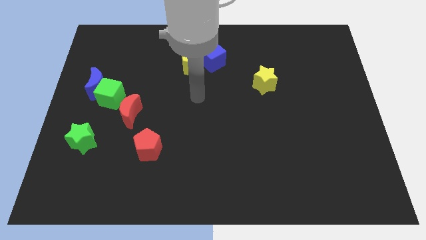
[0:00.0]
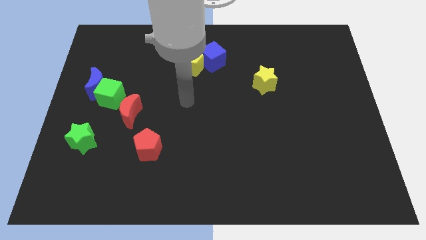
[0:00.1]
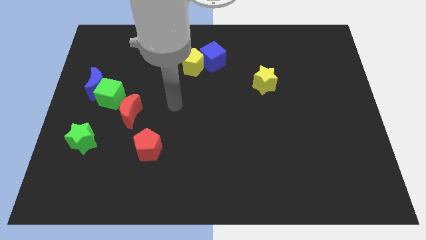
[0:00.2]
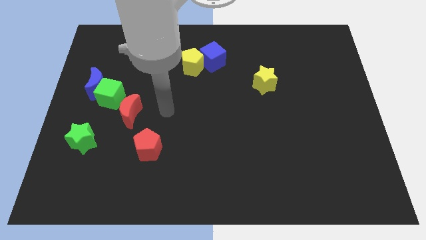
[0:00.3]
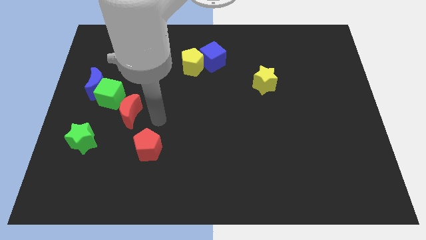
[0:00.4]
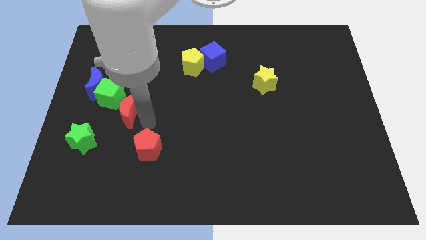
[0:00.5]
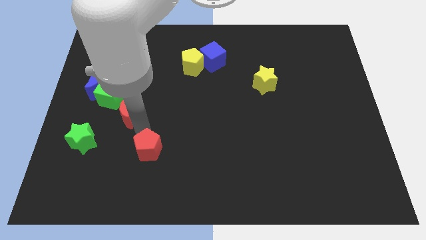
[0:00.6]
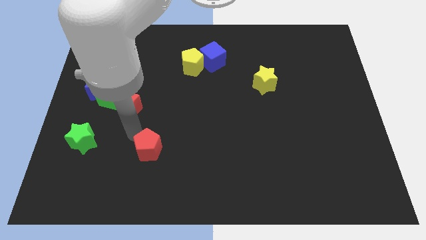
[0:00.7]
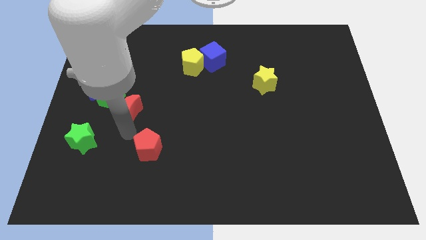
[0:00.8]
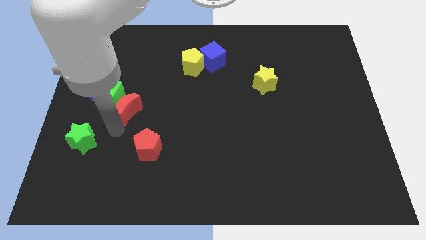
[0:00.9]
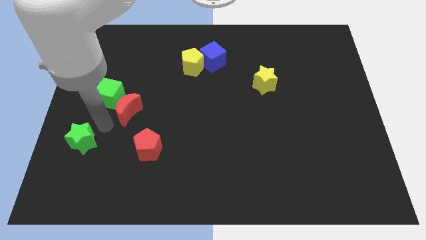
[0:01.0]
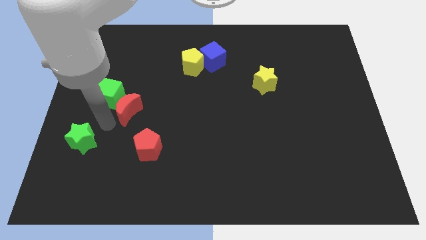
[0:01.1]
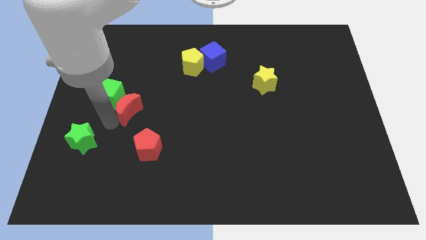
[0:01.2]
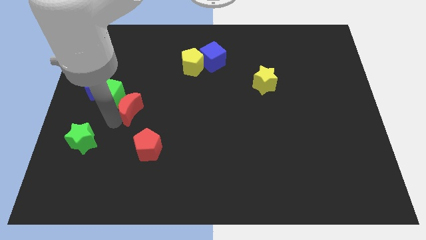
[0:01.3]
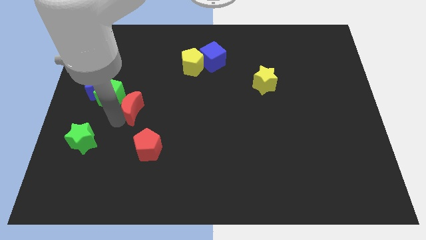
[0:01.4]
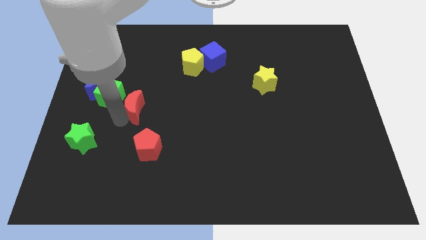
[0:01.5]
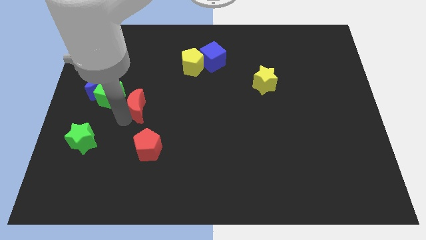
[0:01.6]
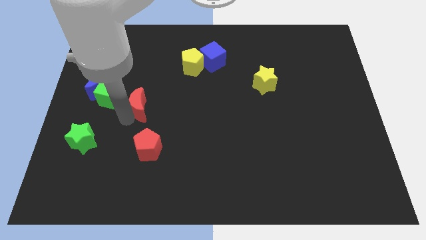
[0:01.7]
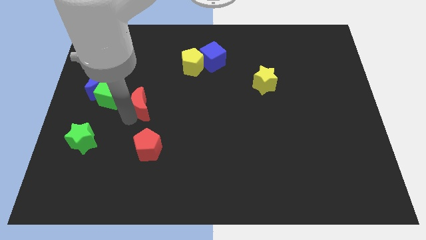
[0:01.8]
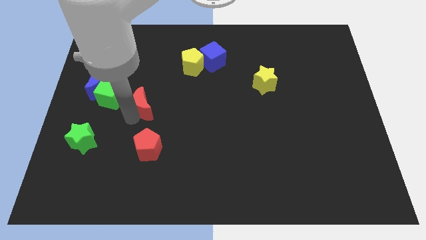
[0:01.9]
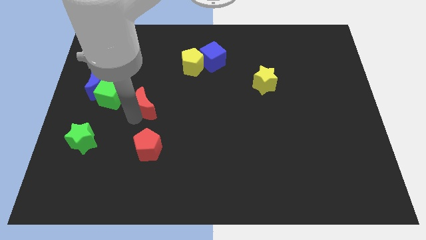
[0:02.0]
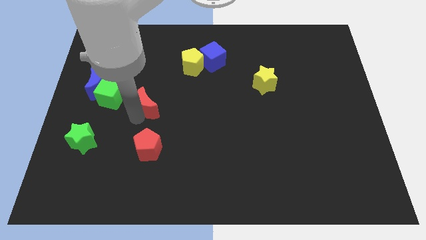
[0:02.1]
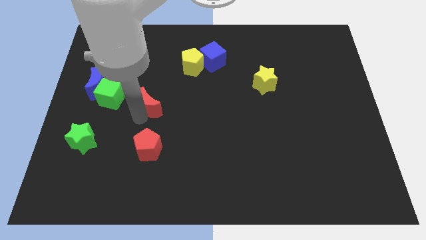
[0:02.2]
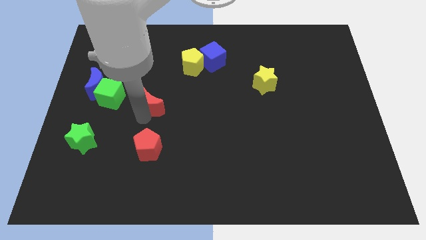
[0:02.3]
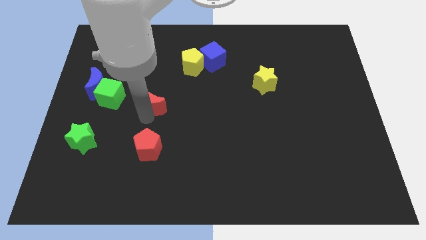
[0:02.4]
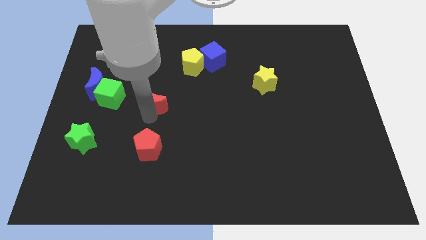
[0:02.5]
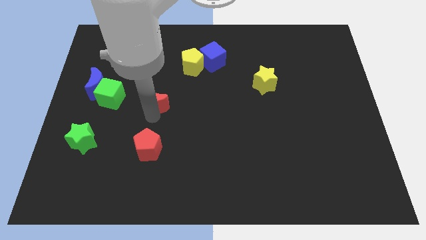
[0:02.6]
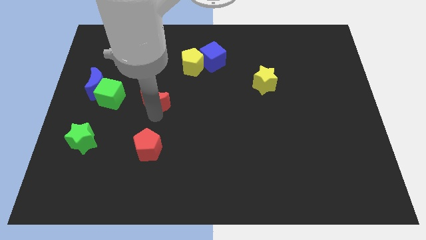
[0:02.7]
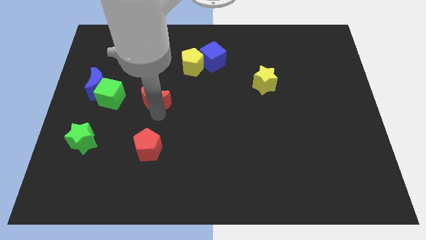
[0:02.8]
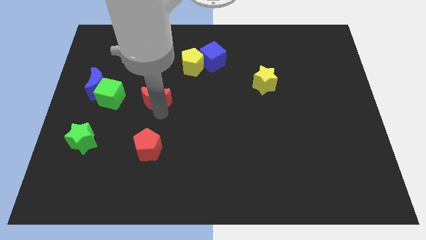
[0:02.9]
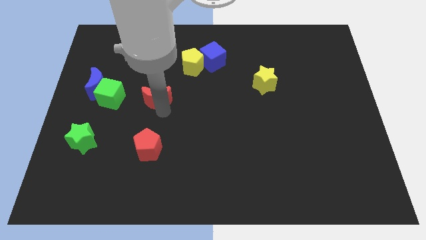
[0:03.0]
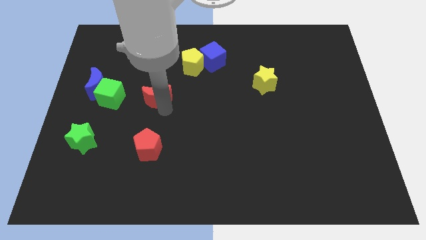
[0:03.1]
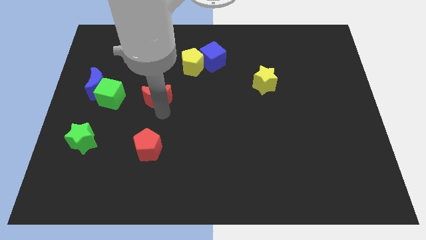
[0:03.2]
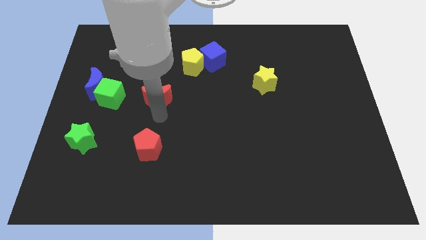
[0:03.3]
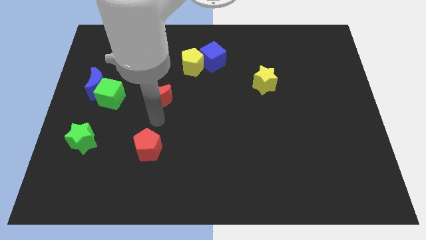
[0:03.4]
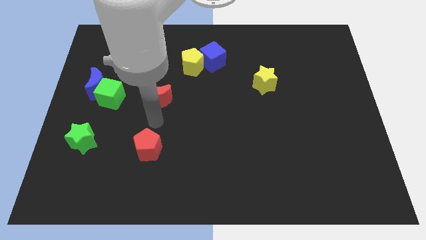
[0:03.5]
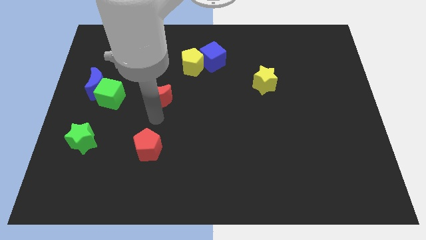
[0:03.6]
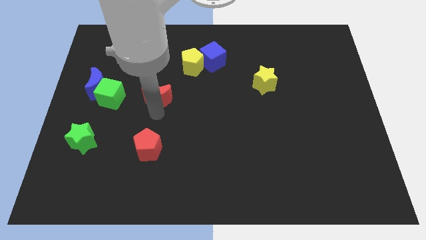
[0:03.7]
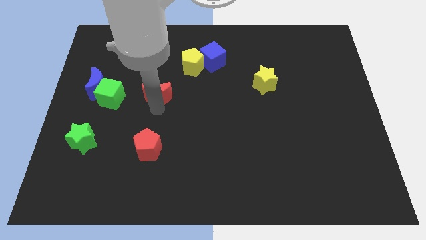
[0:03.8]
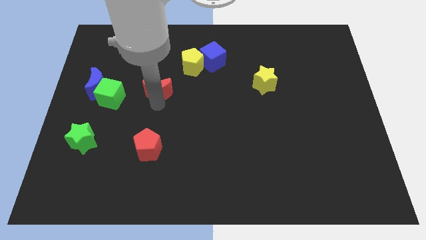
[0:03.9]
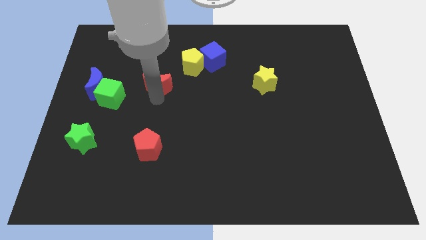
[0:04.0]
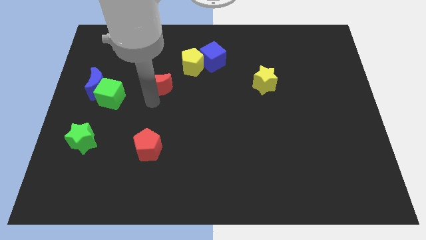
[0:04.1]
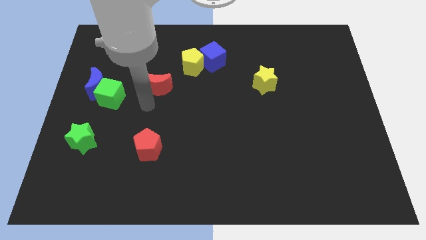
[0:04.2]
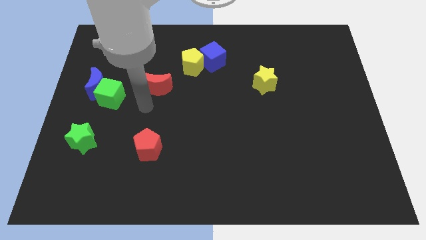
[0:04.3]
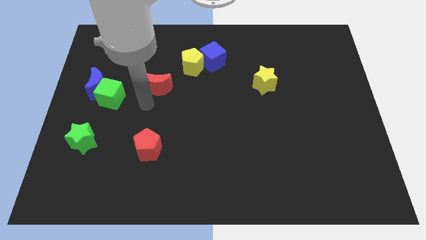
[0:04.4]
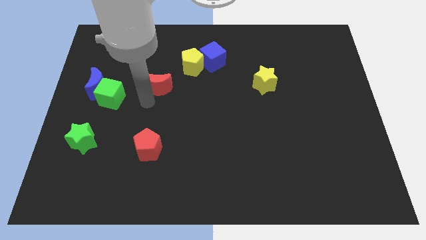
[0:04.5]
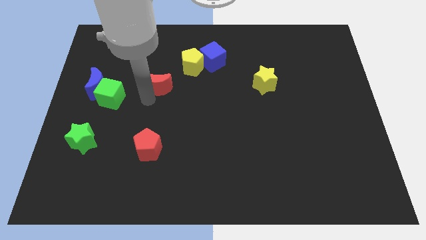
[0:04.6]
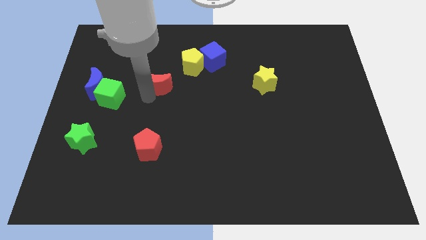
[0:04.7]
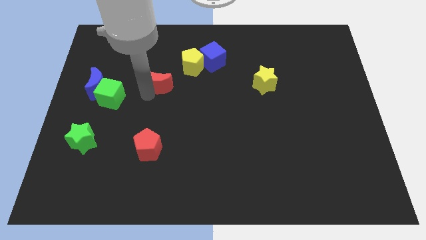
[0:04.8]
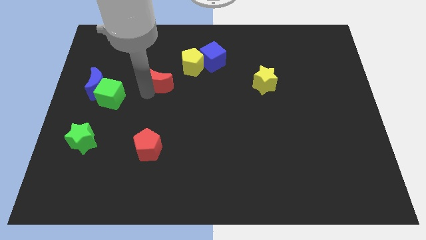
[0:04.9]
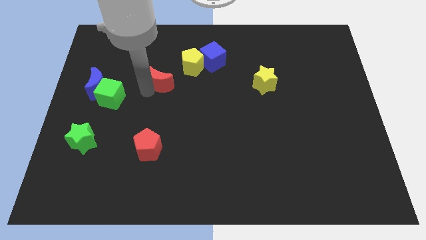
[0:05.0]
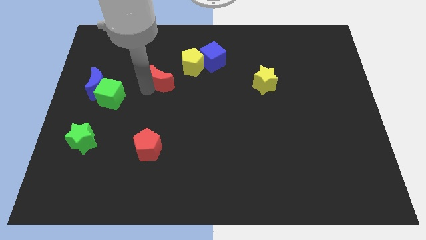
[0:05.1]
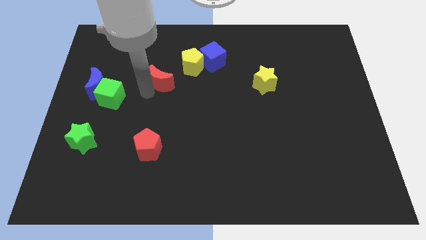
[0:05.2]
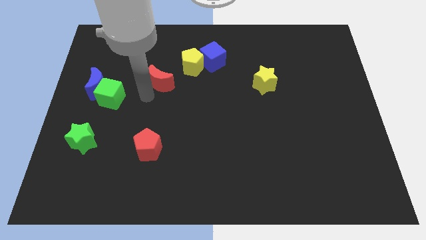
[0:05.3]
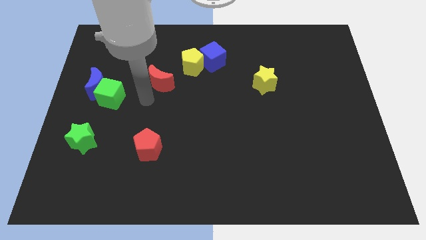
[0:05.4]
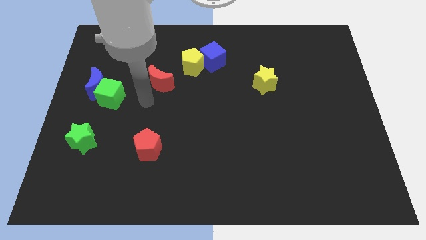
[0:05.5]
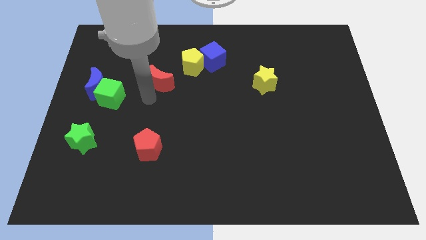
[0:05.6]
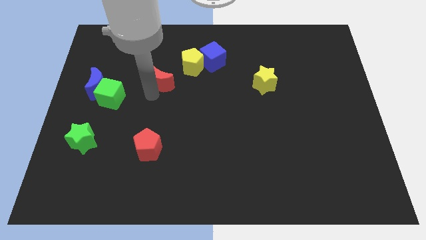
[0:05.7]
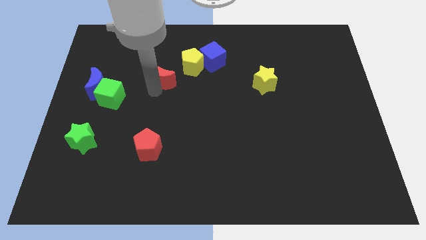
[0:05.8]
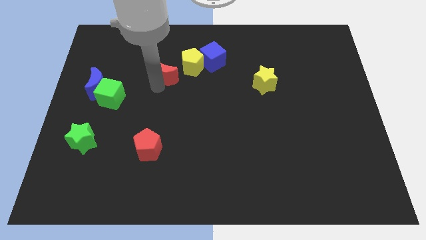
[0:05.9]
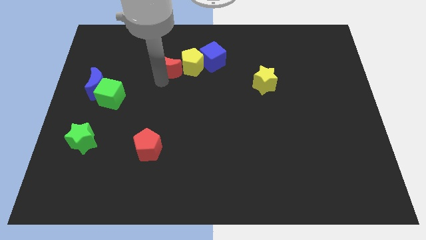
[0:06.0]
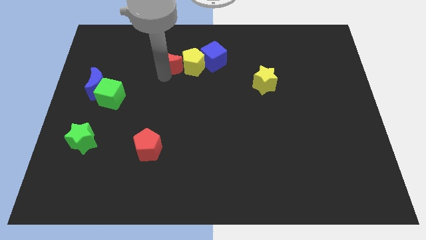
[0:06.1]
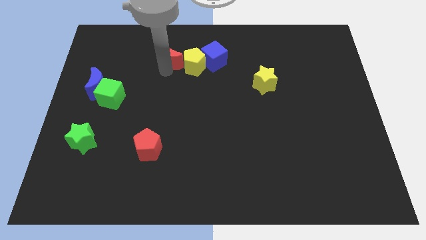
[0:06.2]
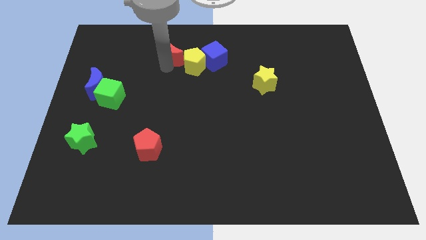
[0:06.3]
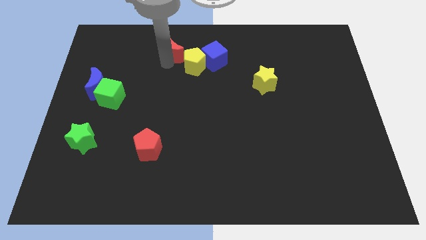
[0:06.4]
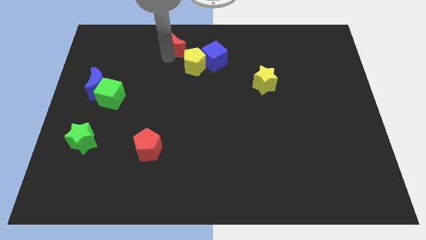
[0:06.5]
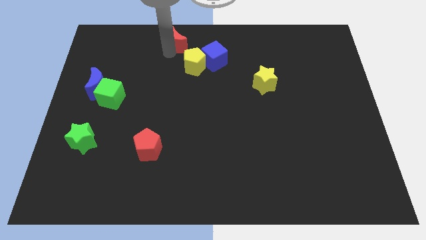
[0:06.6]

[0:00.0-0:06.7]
move the red moon to the towards your base

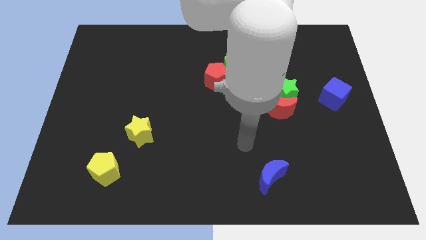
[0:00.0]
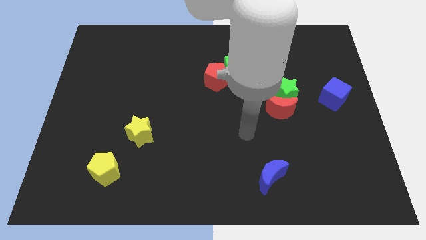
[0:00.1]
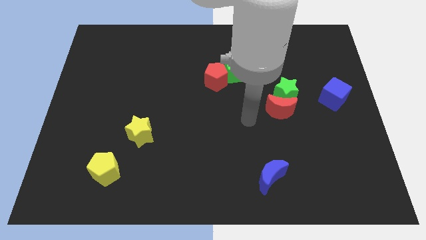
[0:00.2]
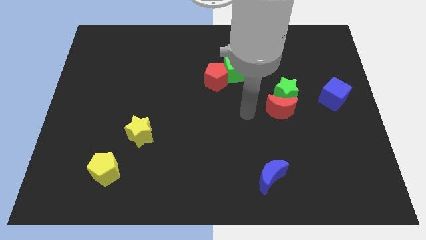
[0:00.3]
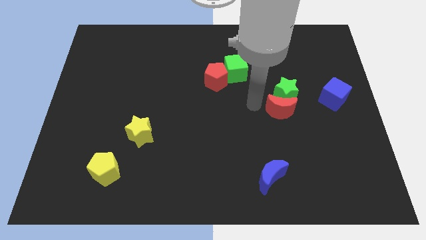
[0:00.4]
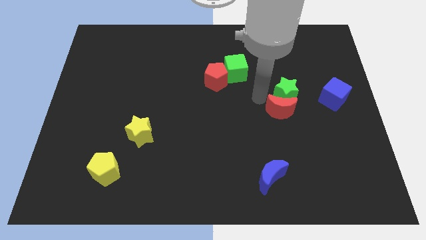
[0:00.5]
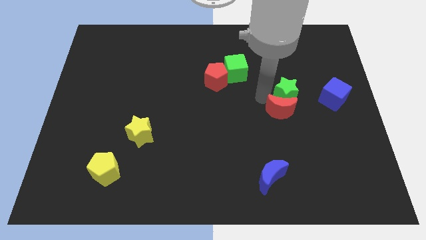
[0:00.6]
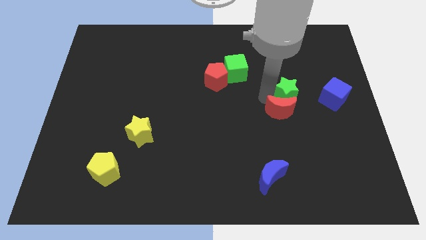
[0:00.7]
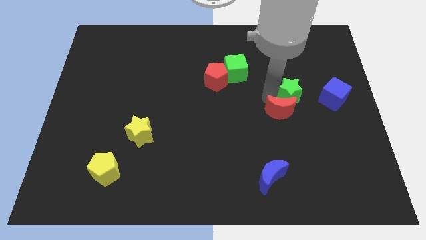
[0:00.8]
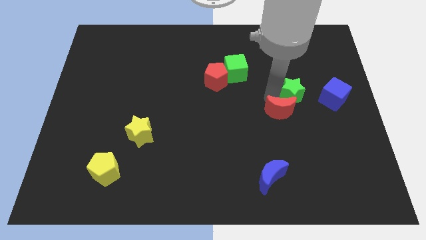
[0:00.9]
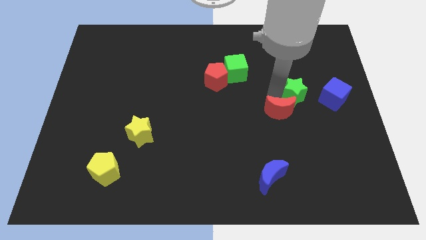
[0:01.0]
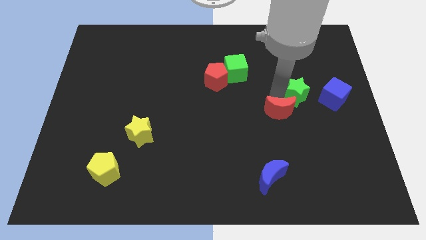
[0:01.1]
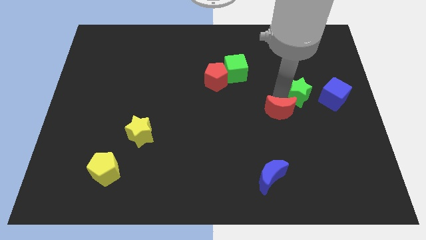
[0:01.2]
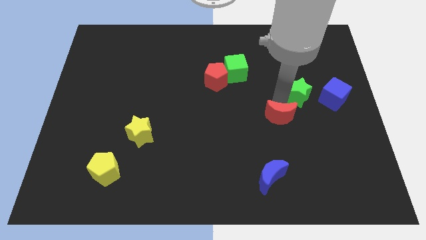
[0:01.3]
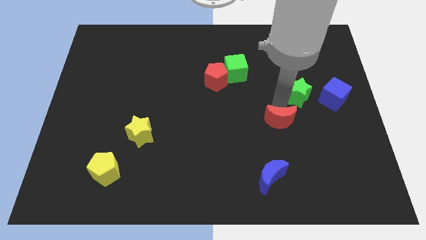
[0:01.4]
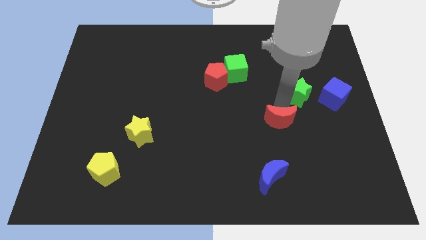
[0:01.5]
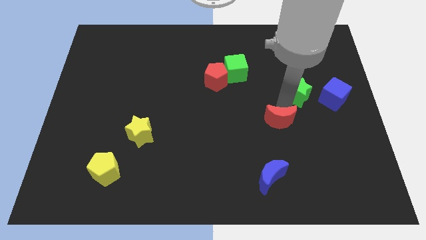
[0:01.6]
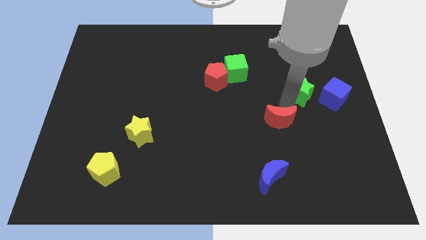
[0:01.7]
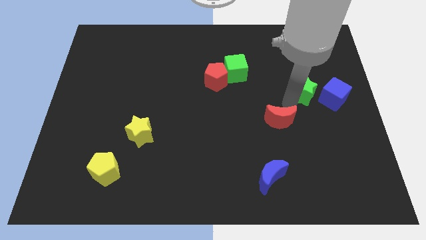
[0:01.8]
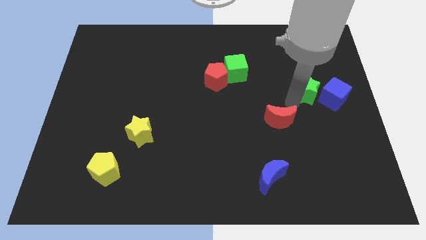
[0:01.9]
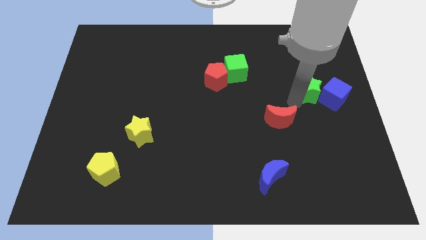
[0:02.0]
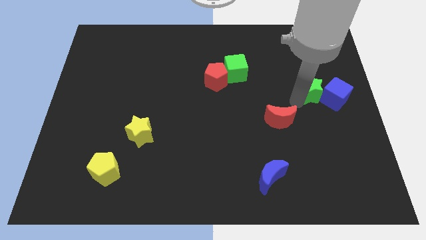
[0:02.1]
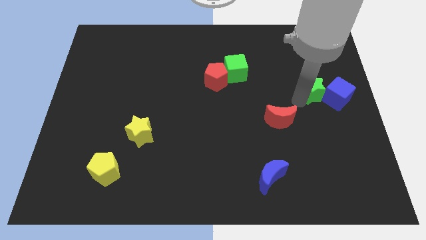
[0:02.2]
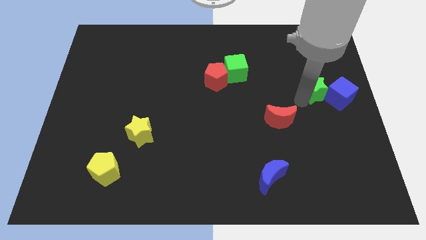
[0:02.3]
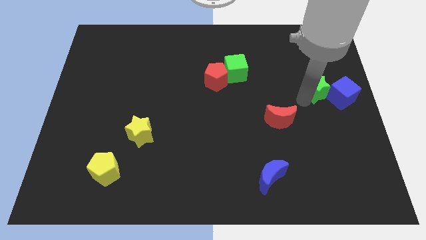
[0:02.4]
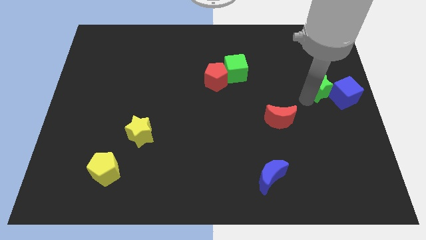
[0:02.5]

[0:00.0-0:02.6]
move the green star to the right side of the board
